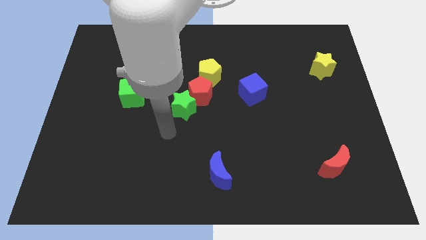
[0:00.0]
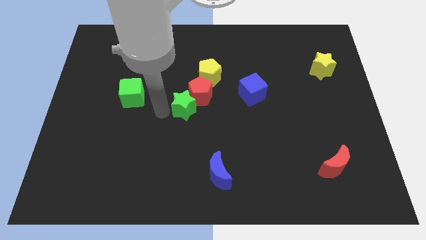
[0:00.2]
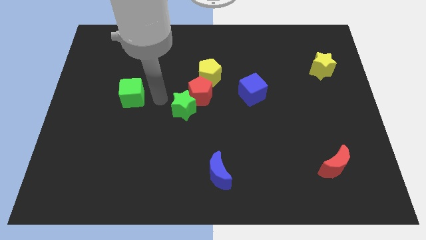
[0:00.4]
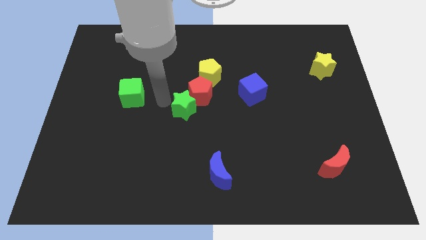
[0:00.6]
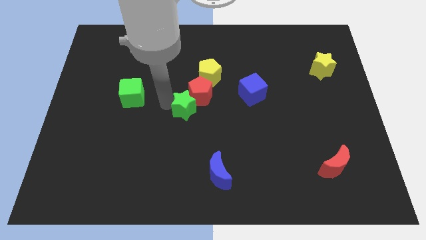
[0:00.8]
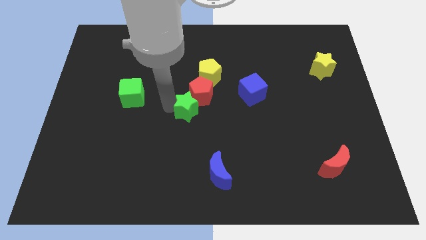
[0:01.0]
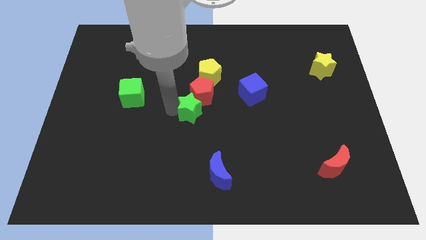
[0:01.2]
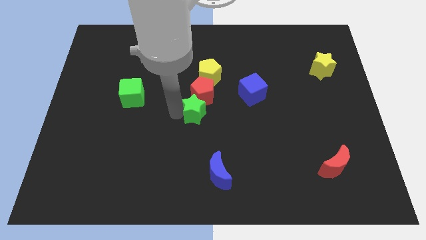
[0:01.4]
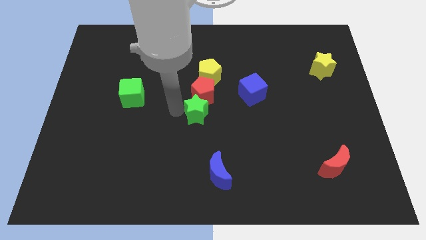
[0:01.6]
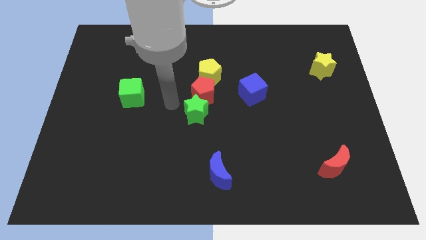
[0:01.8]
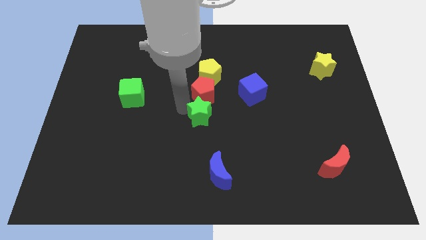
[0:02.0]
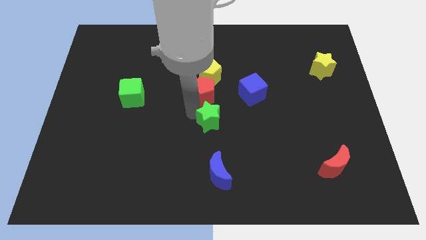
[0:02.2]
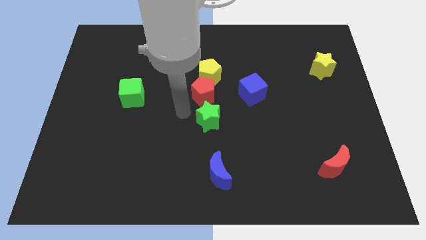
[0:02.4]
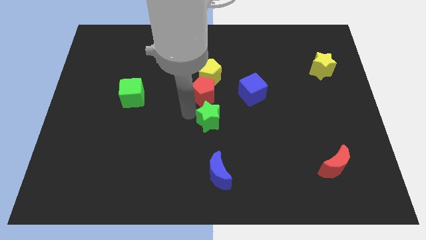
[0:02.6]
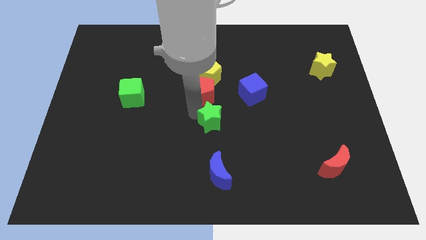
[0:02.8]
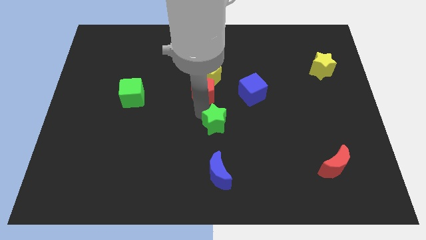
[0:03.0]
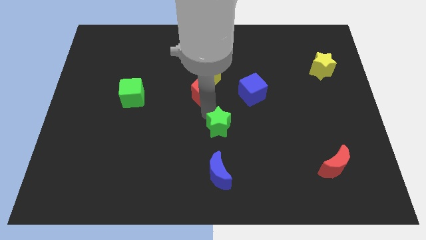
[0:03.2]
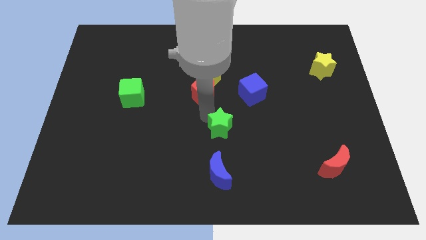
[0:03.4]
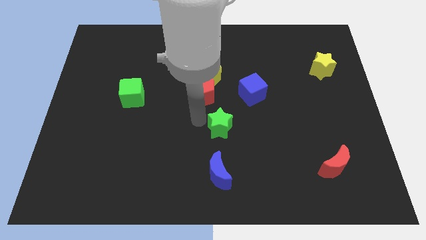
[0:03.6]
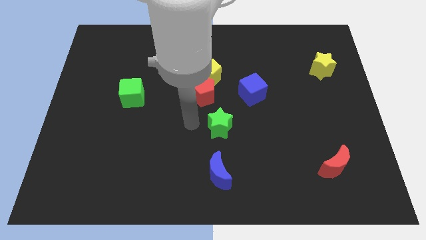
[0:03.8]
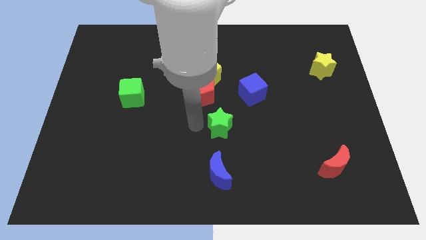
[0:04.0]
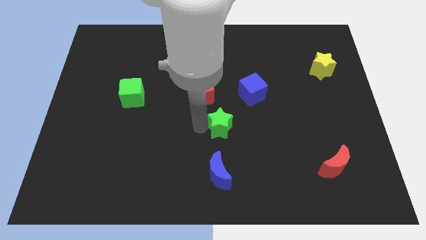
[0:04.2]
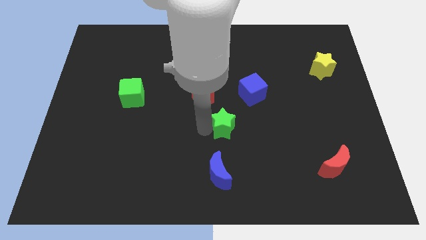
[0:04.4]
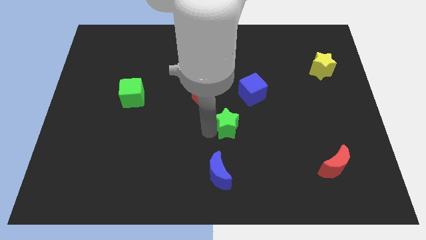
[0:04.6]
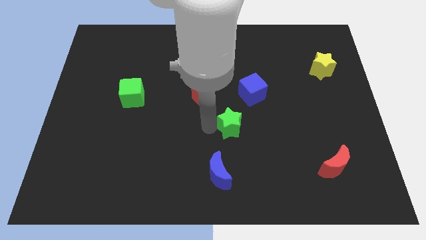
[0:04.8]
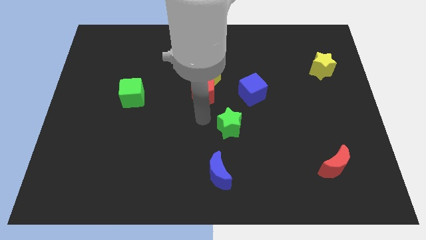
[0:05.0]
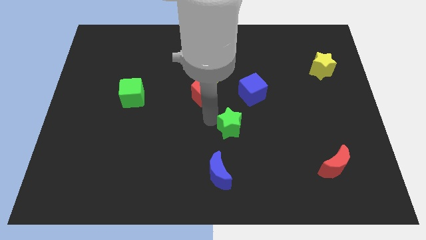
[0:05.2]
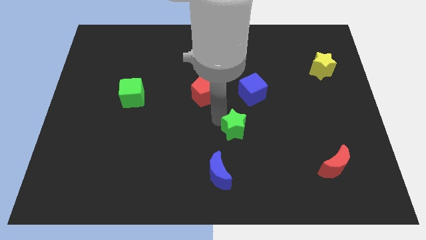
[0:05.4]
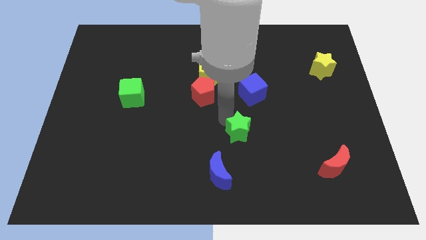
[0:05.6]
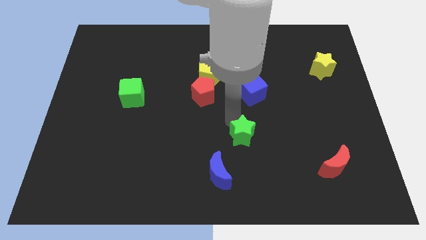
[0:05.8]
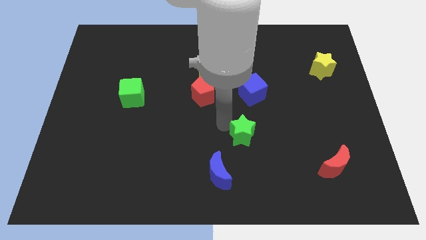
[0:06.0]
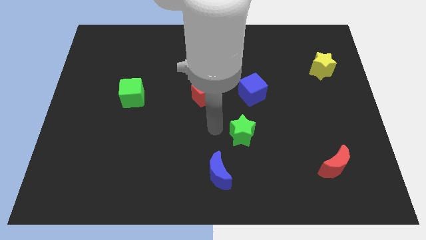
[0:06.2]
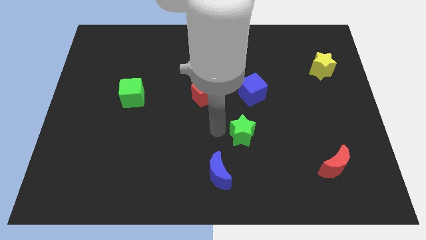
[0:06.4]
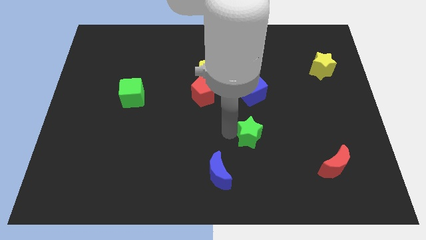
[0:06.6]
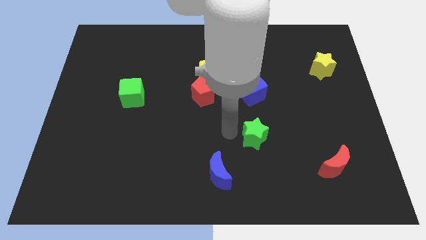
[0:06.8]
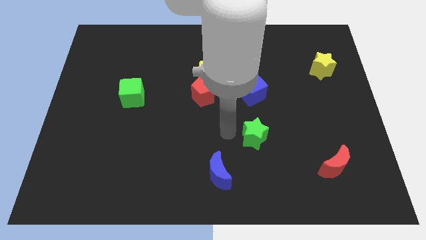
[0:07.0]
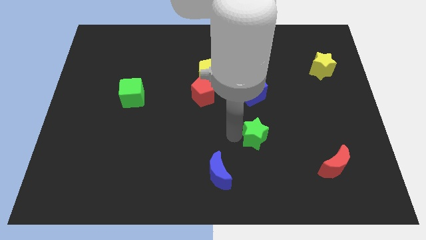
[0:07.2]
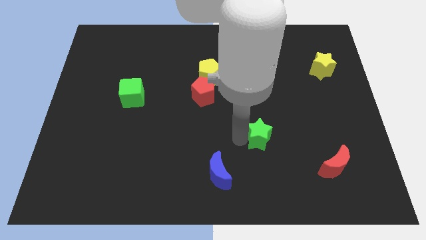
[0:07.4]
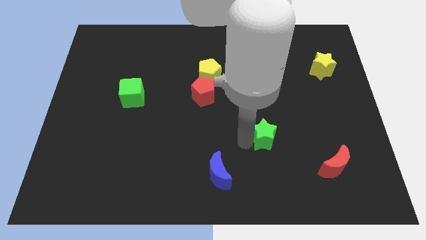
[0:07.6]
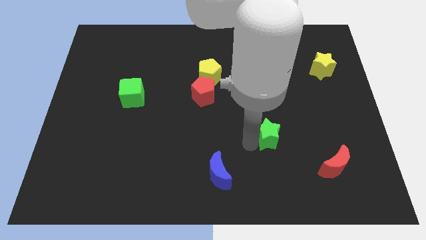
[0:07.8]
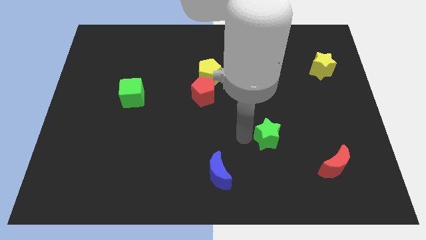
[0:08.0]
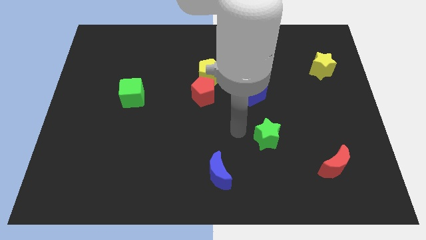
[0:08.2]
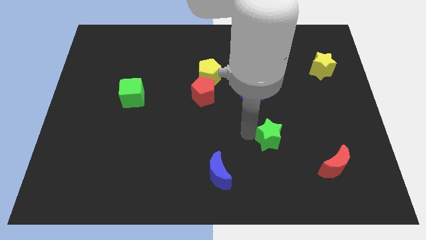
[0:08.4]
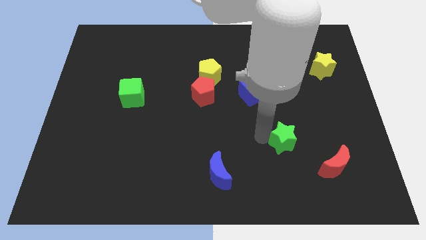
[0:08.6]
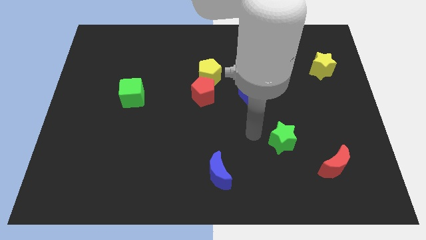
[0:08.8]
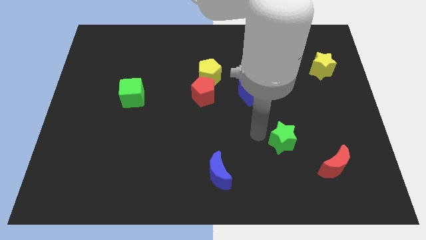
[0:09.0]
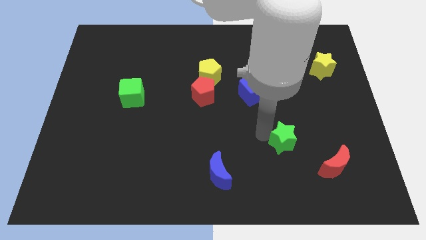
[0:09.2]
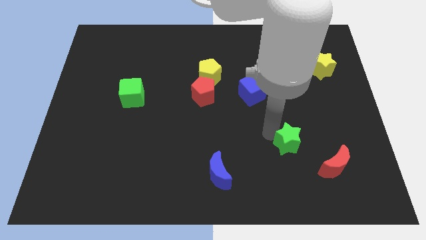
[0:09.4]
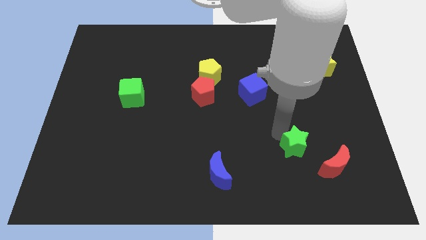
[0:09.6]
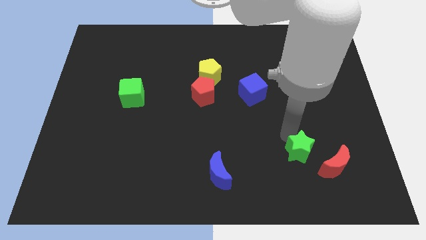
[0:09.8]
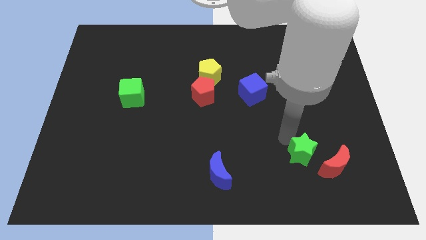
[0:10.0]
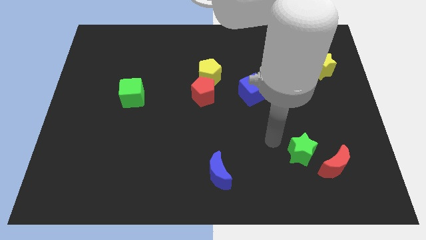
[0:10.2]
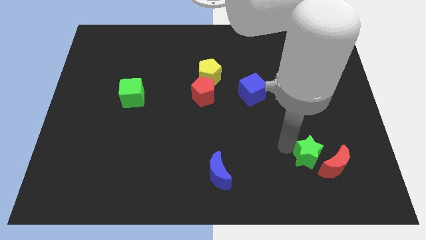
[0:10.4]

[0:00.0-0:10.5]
slide the green star to the red moon

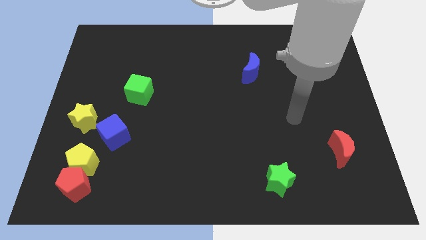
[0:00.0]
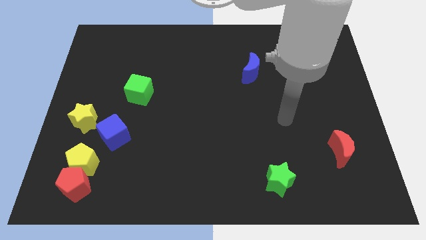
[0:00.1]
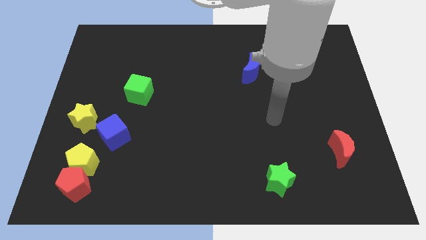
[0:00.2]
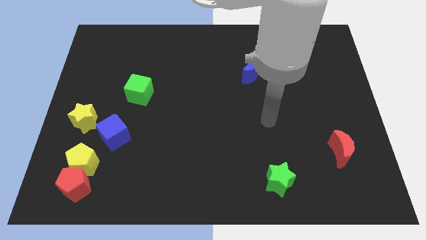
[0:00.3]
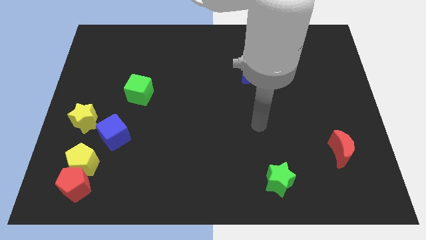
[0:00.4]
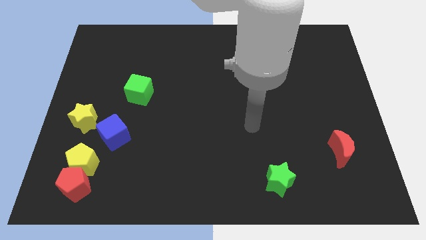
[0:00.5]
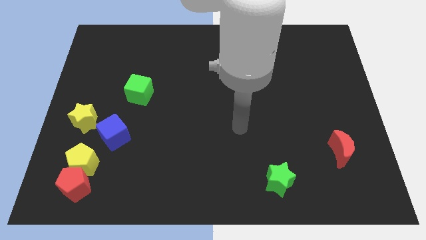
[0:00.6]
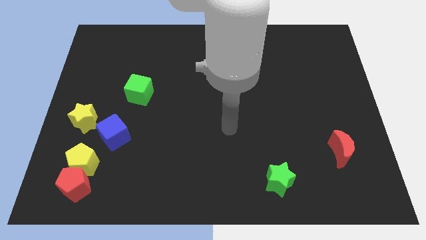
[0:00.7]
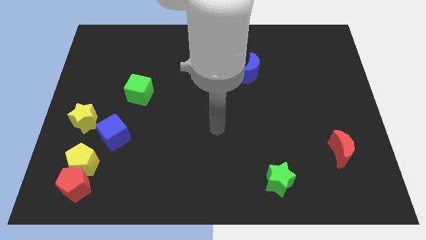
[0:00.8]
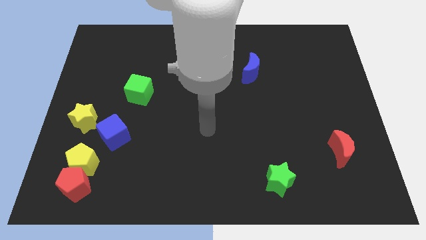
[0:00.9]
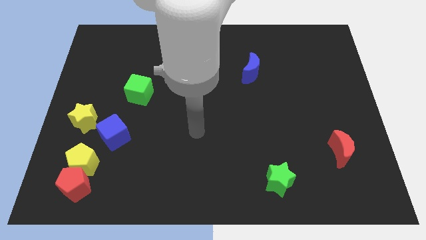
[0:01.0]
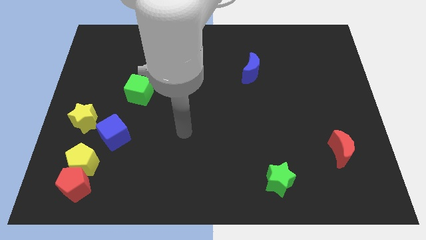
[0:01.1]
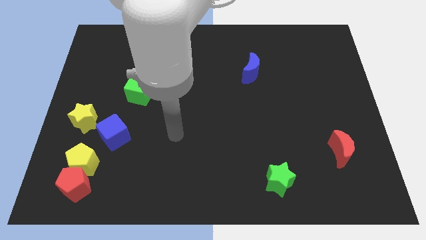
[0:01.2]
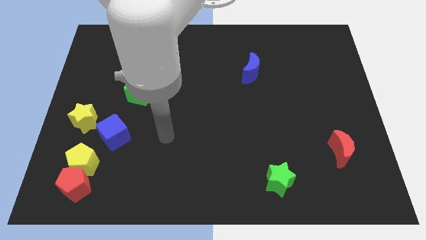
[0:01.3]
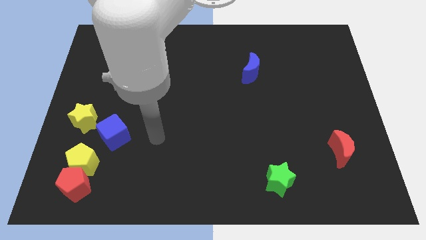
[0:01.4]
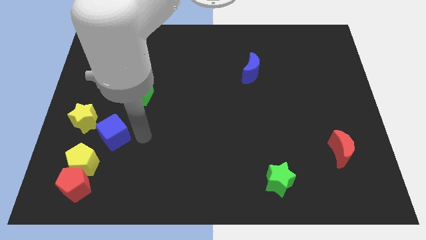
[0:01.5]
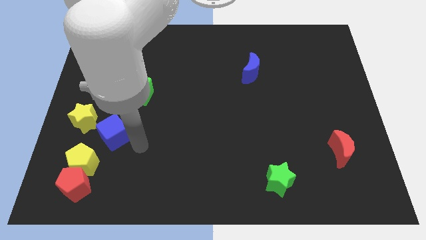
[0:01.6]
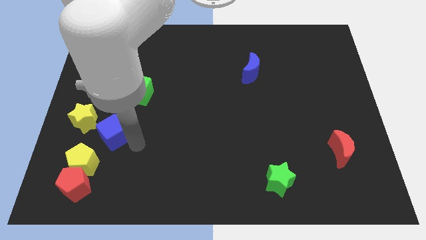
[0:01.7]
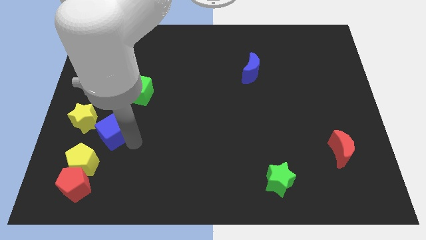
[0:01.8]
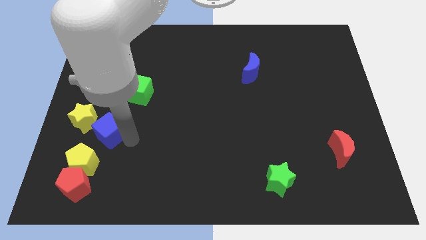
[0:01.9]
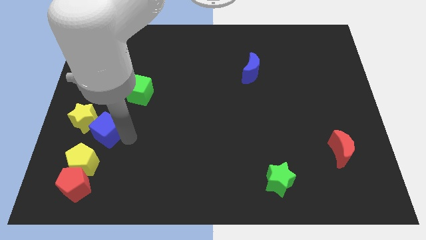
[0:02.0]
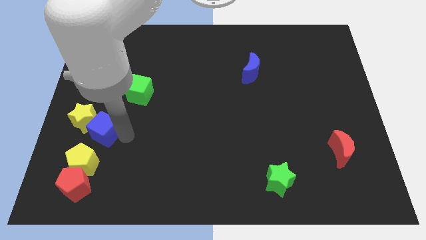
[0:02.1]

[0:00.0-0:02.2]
put the blue cube to the yellow star
